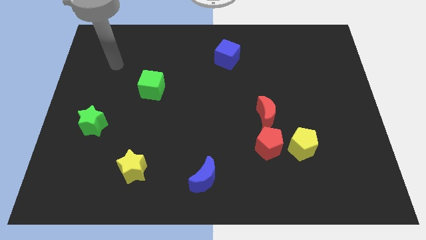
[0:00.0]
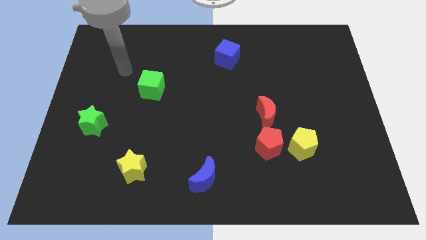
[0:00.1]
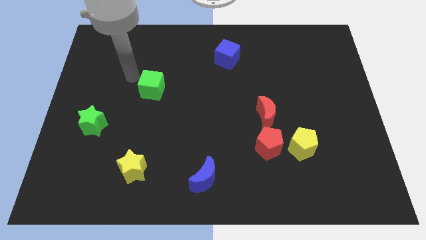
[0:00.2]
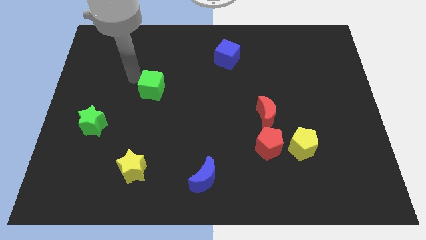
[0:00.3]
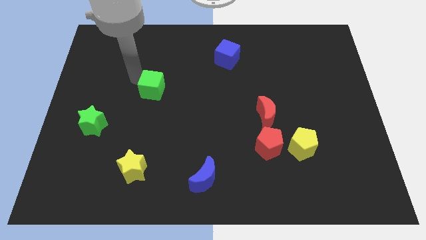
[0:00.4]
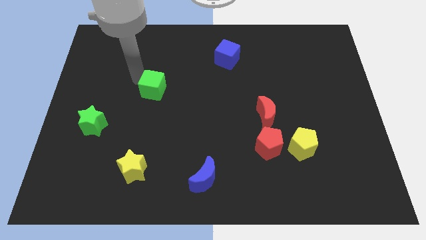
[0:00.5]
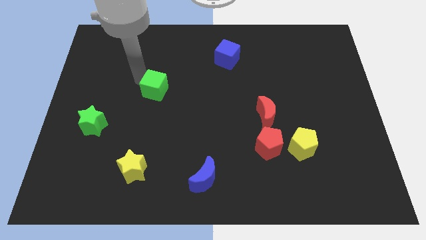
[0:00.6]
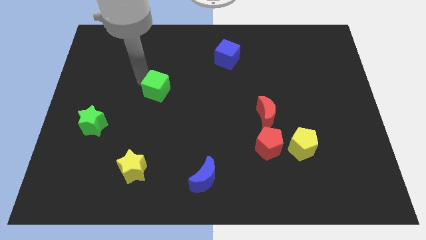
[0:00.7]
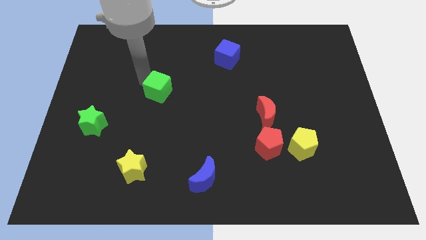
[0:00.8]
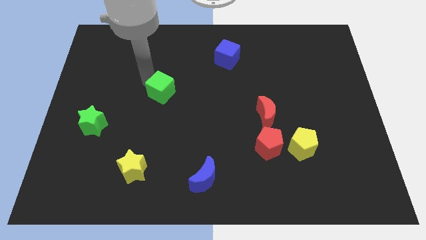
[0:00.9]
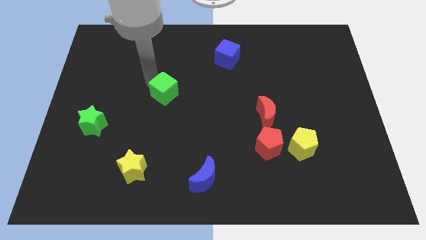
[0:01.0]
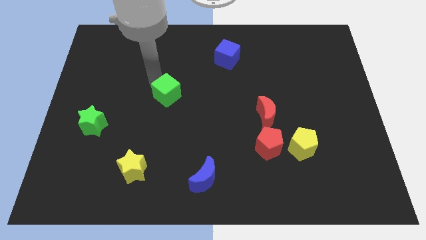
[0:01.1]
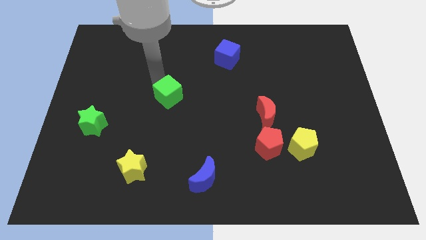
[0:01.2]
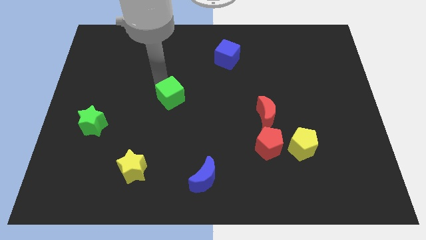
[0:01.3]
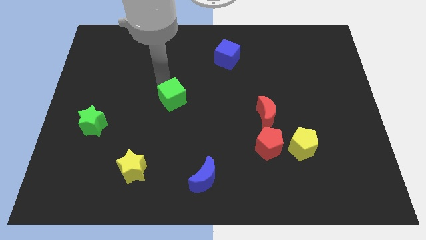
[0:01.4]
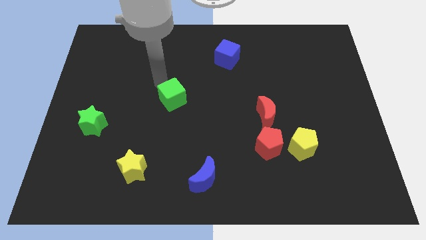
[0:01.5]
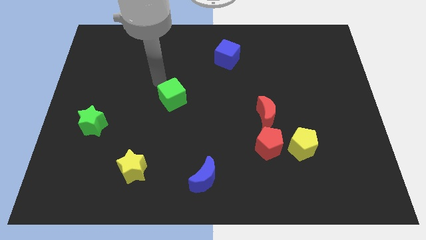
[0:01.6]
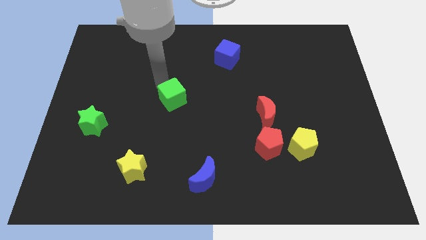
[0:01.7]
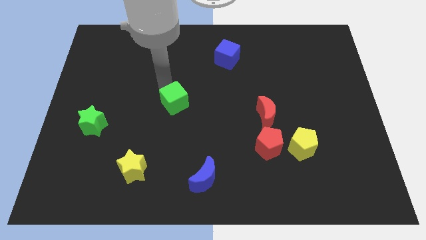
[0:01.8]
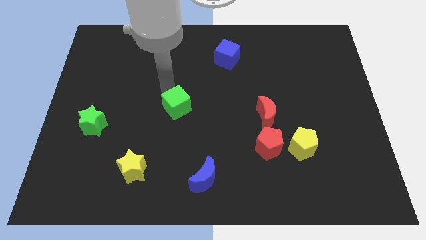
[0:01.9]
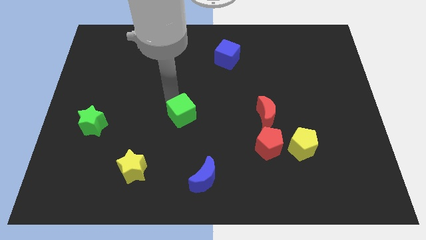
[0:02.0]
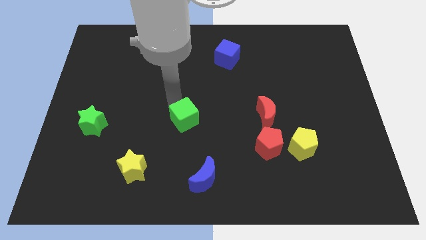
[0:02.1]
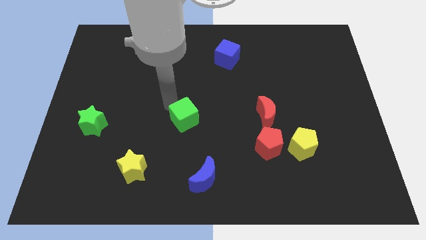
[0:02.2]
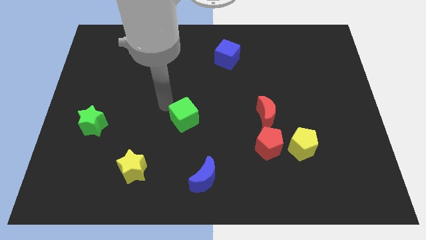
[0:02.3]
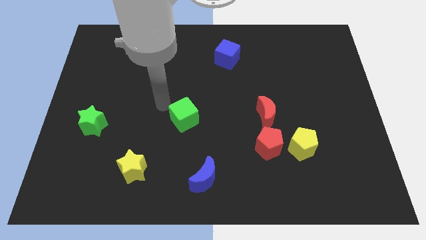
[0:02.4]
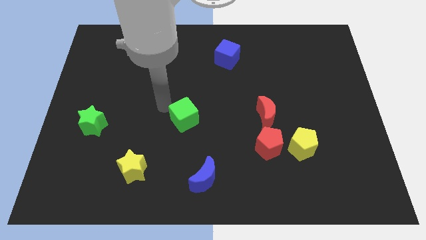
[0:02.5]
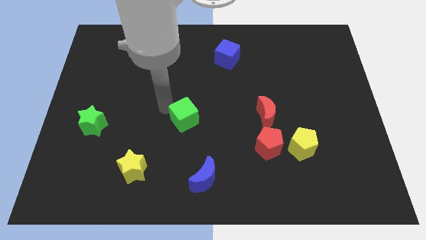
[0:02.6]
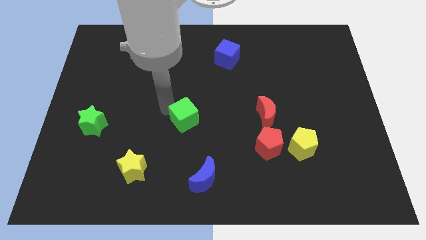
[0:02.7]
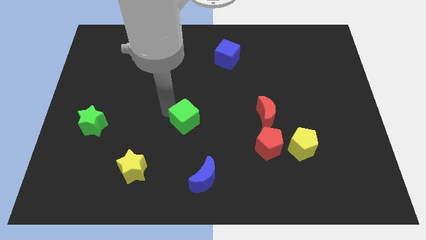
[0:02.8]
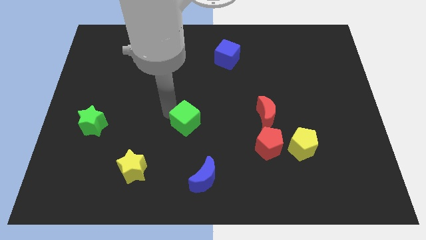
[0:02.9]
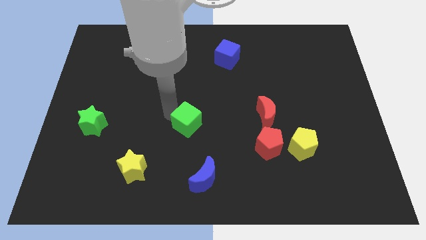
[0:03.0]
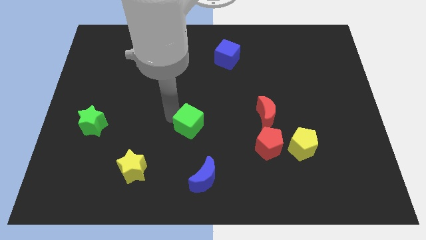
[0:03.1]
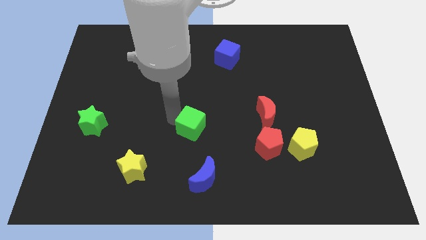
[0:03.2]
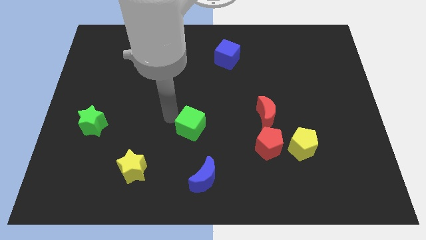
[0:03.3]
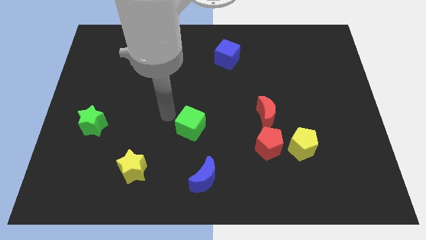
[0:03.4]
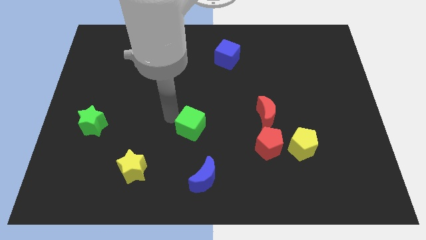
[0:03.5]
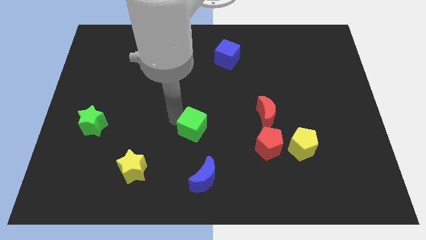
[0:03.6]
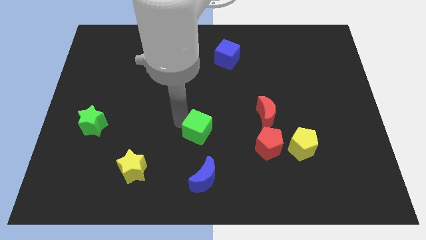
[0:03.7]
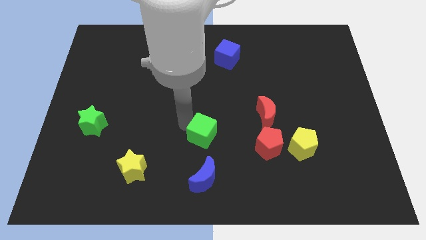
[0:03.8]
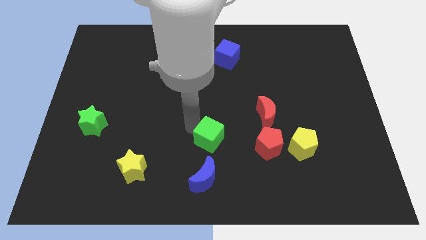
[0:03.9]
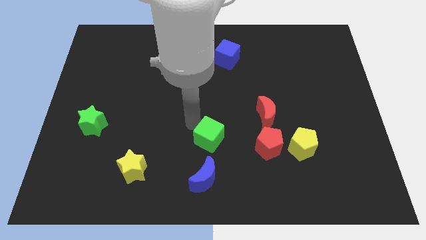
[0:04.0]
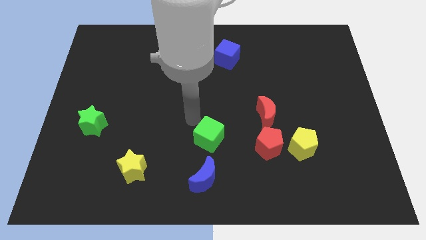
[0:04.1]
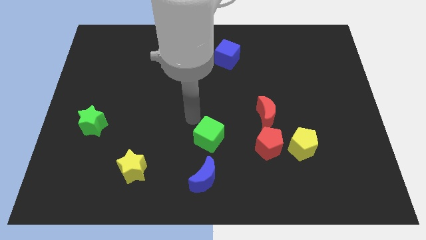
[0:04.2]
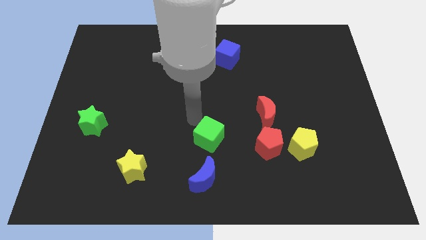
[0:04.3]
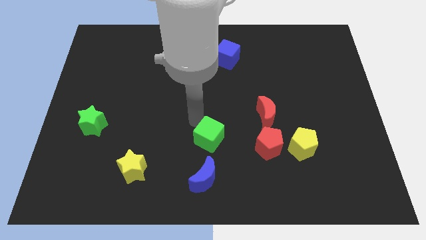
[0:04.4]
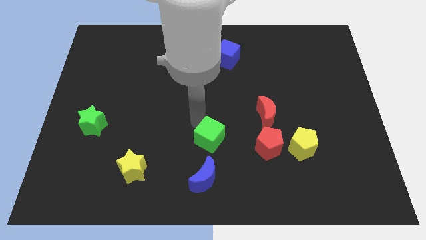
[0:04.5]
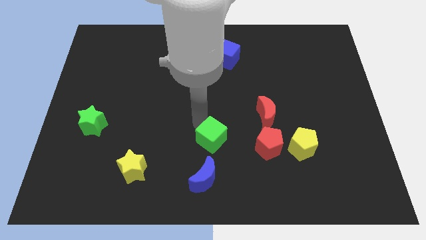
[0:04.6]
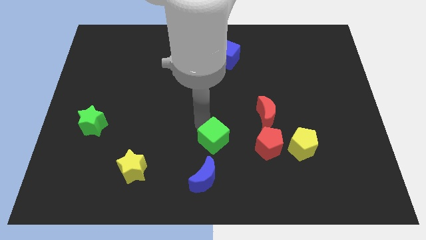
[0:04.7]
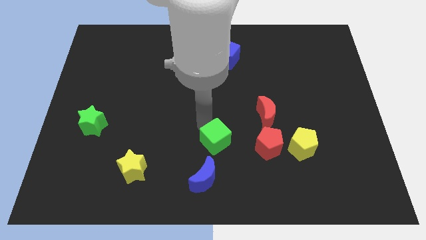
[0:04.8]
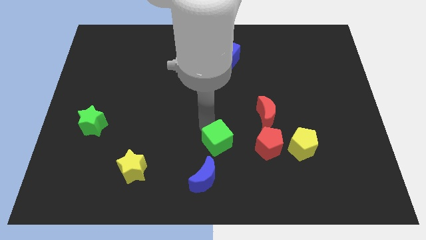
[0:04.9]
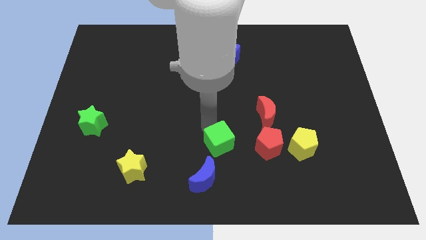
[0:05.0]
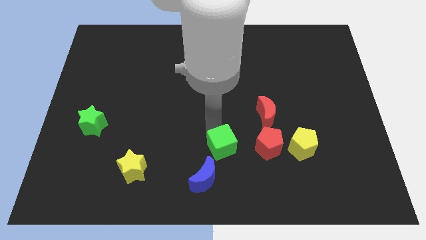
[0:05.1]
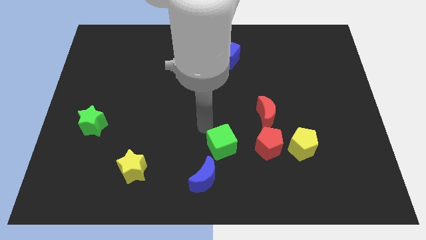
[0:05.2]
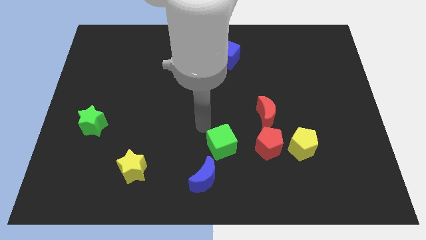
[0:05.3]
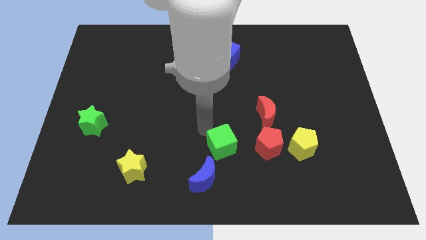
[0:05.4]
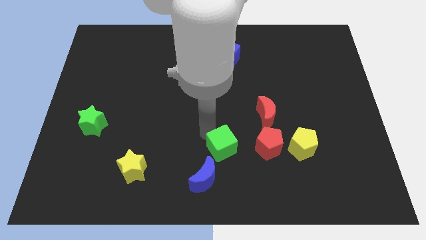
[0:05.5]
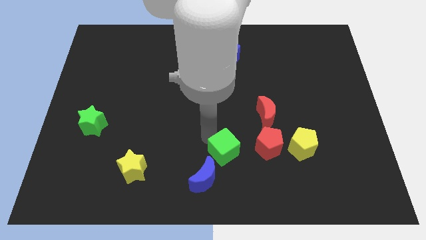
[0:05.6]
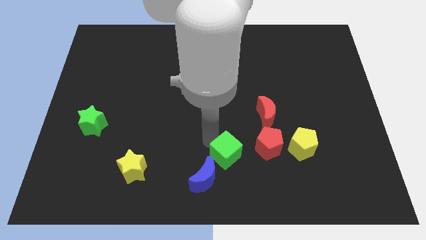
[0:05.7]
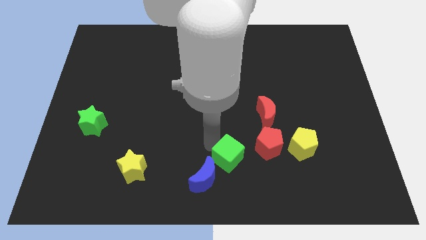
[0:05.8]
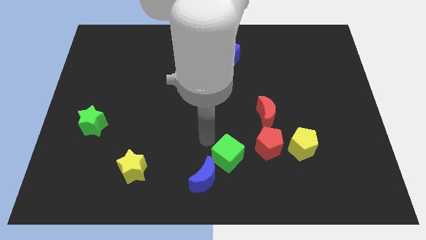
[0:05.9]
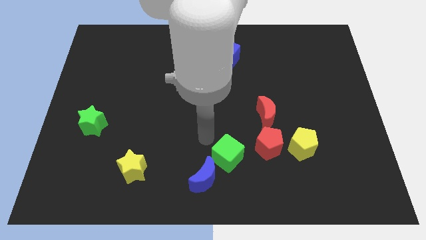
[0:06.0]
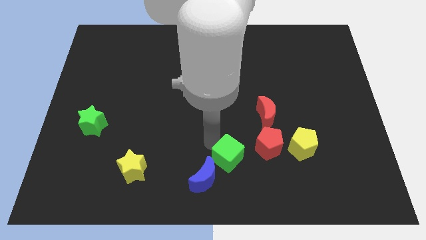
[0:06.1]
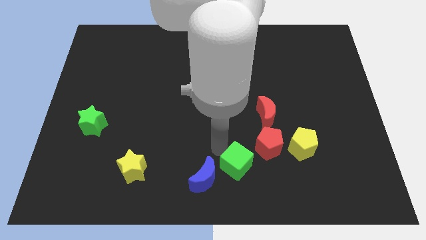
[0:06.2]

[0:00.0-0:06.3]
move the green cube to the right of the blue moon

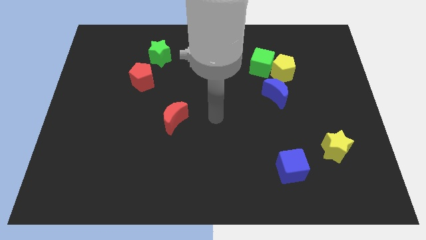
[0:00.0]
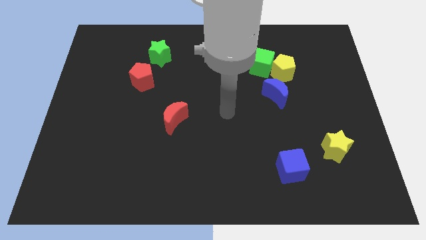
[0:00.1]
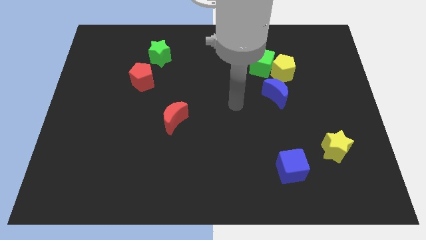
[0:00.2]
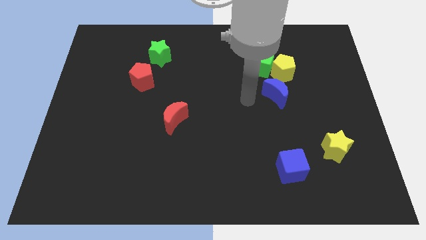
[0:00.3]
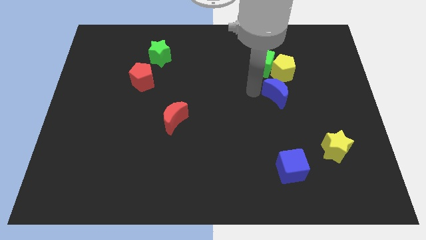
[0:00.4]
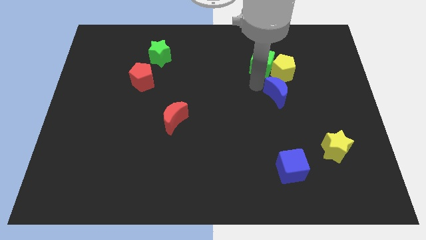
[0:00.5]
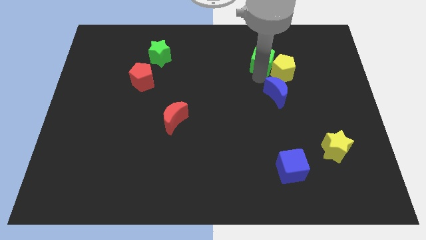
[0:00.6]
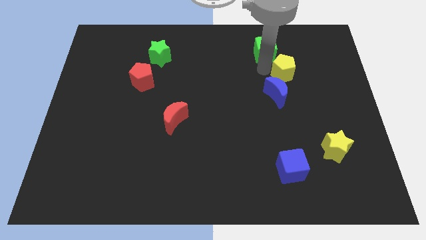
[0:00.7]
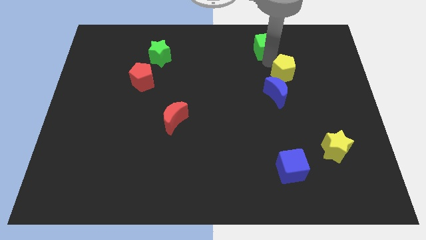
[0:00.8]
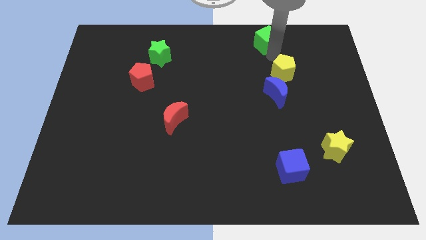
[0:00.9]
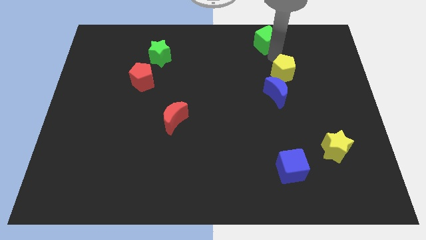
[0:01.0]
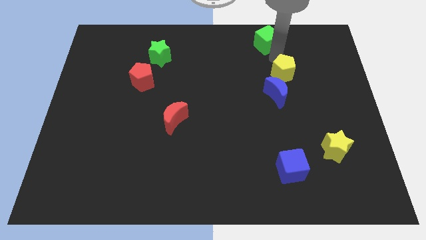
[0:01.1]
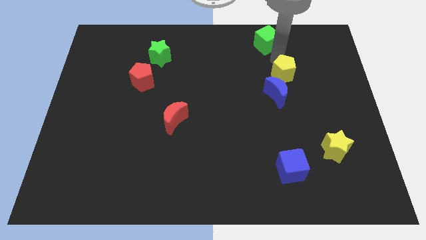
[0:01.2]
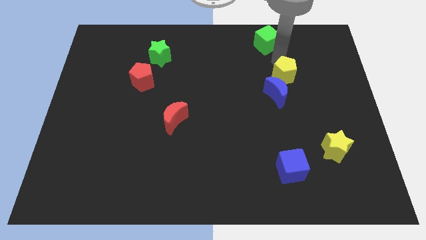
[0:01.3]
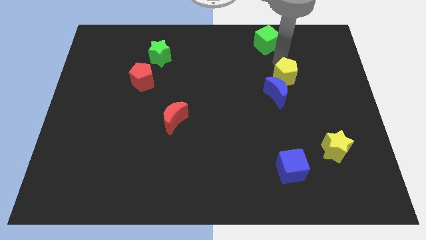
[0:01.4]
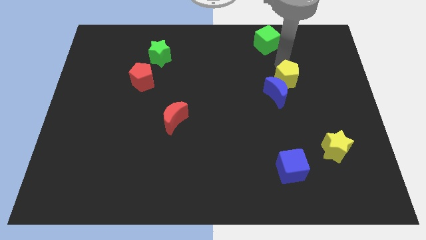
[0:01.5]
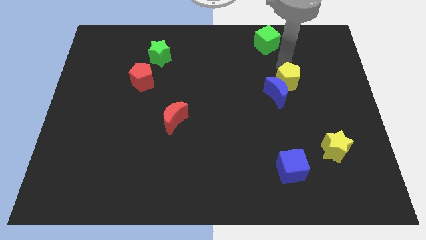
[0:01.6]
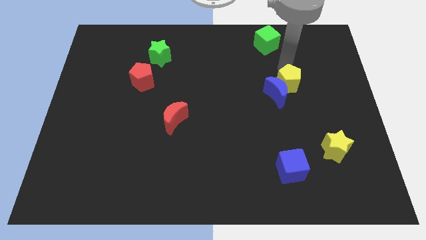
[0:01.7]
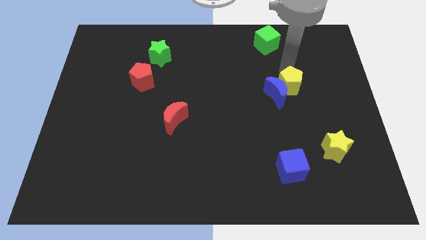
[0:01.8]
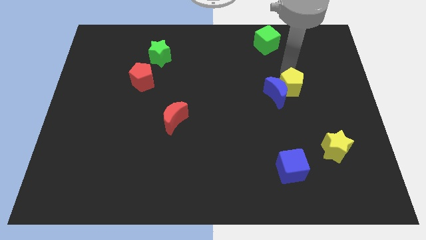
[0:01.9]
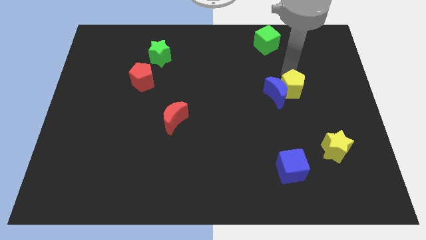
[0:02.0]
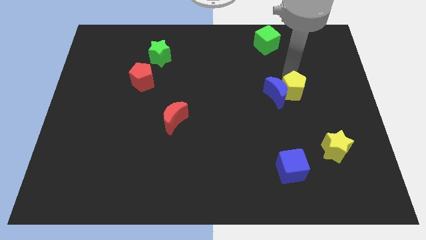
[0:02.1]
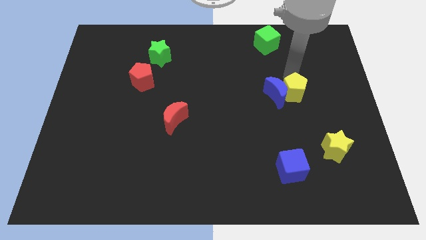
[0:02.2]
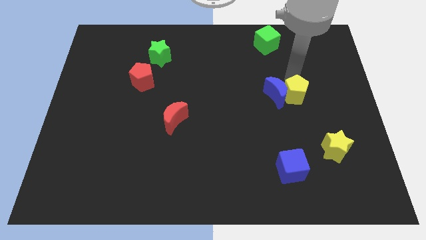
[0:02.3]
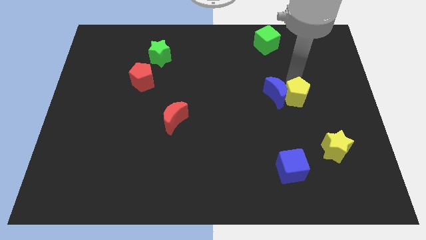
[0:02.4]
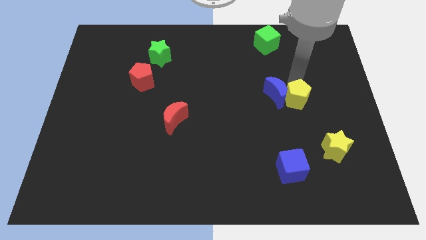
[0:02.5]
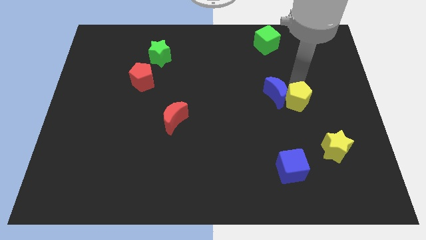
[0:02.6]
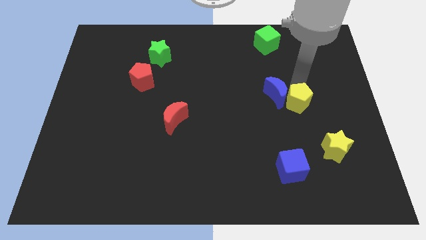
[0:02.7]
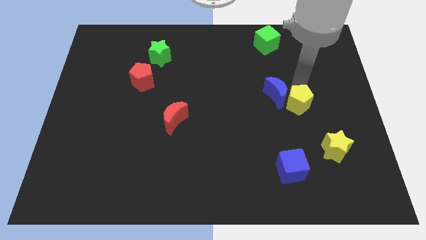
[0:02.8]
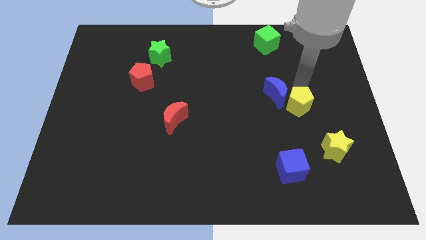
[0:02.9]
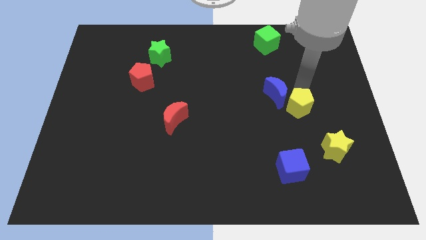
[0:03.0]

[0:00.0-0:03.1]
move the yellow pentagon to the bottom of the blue moon
